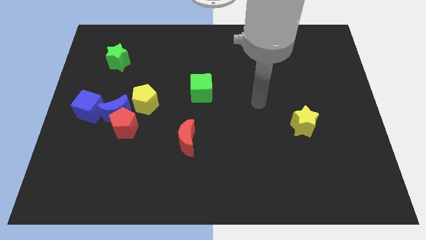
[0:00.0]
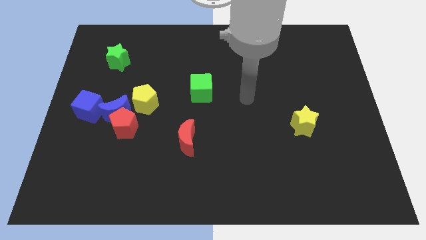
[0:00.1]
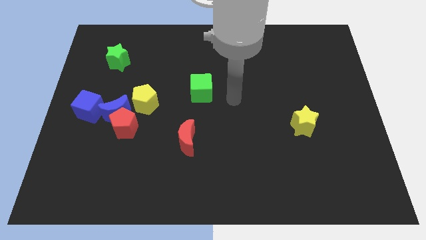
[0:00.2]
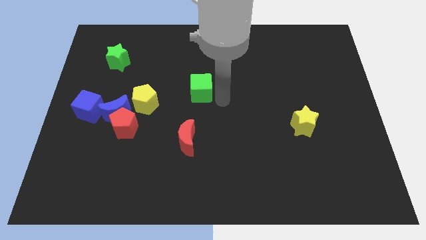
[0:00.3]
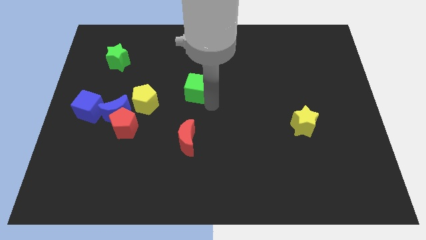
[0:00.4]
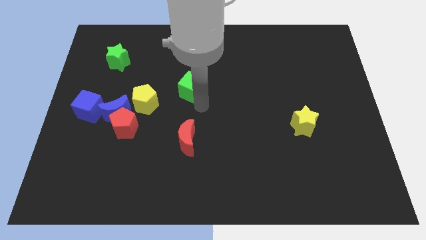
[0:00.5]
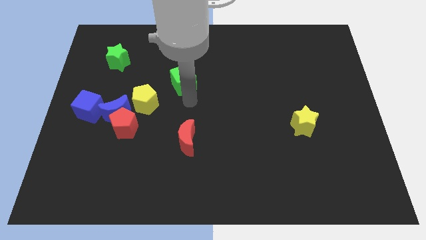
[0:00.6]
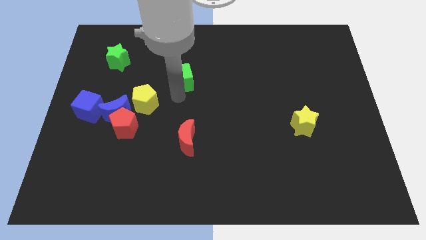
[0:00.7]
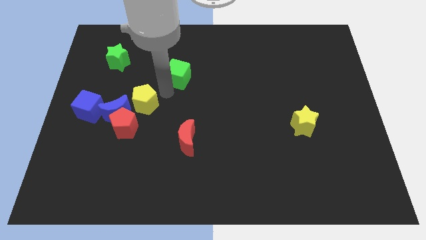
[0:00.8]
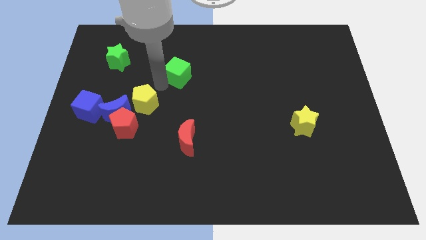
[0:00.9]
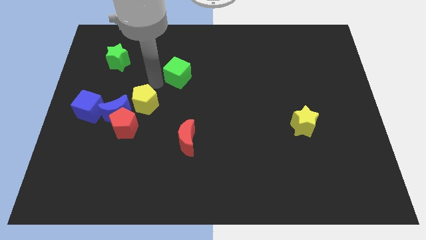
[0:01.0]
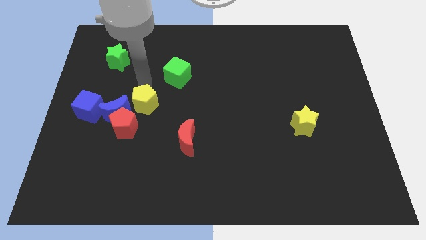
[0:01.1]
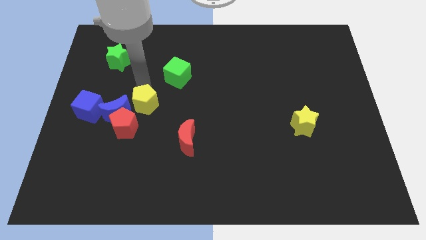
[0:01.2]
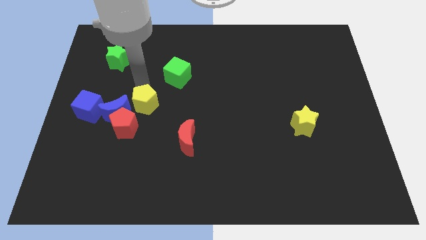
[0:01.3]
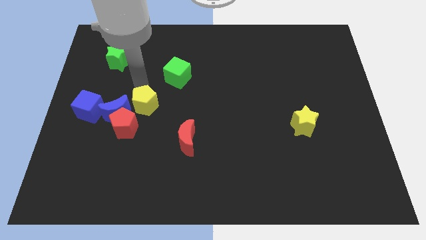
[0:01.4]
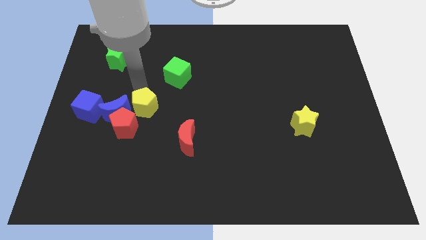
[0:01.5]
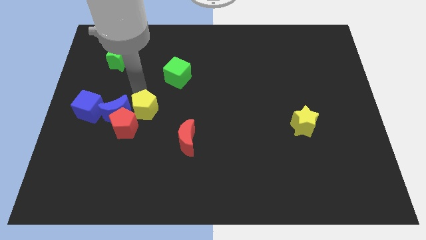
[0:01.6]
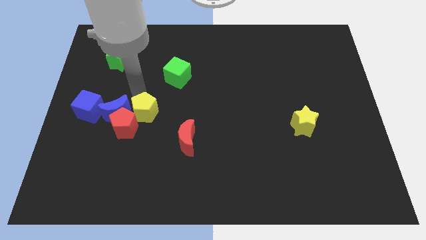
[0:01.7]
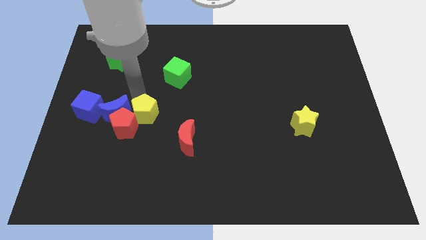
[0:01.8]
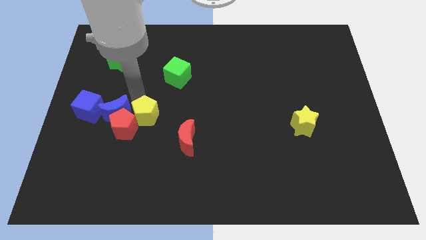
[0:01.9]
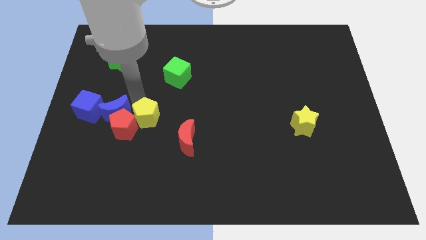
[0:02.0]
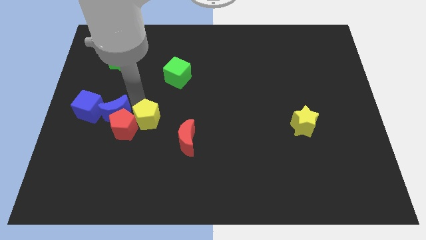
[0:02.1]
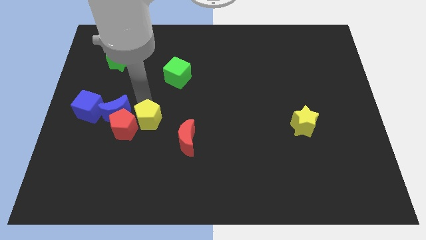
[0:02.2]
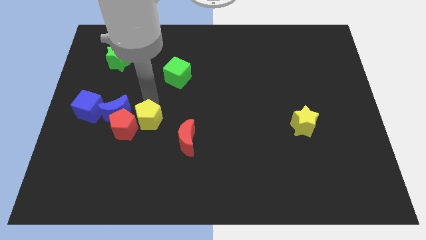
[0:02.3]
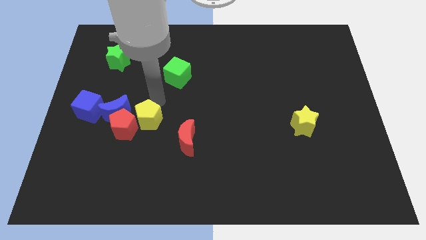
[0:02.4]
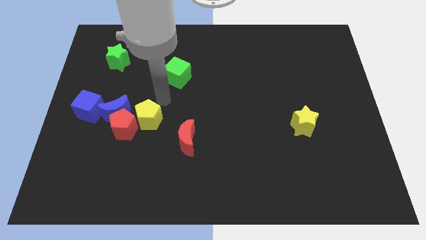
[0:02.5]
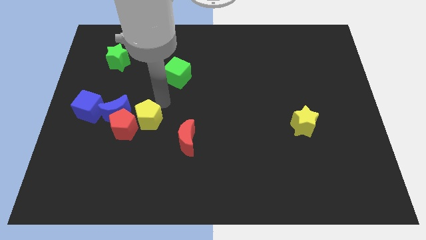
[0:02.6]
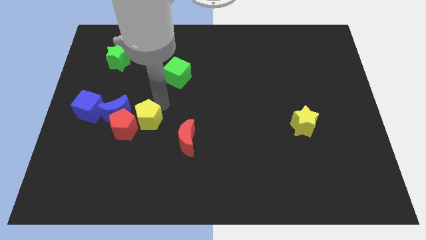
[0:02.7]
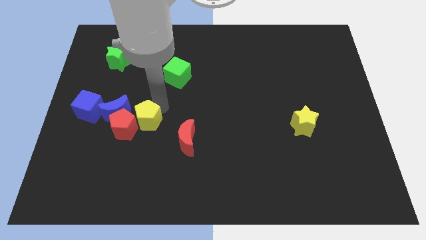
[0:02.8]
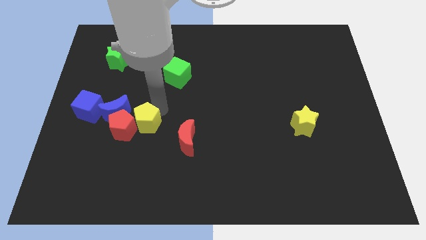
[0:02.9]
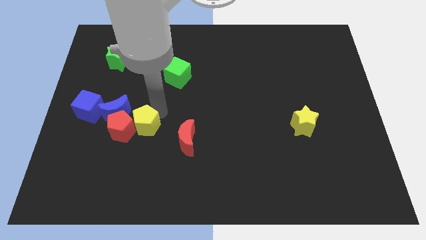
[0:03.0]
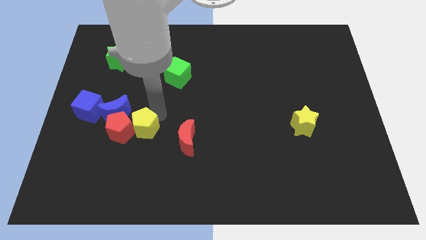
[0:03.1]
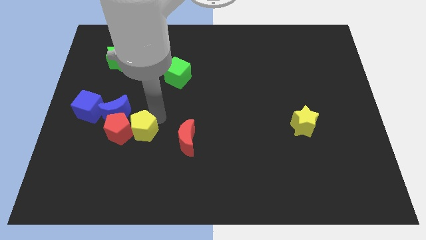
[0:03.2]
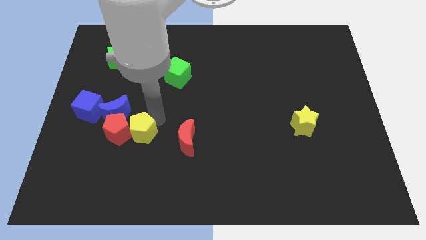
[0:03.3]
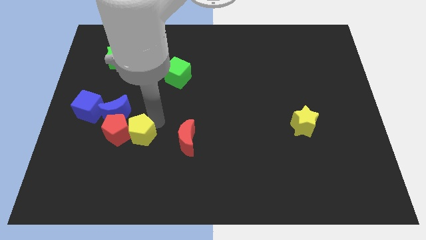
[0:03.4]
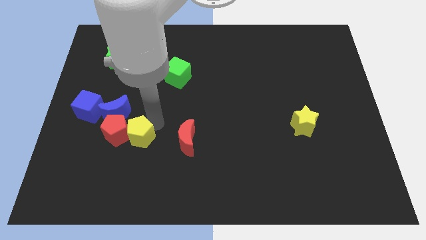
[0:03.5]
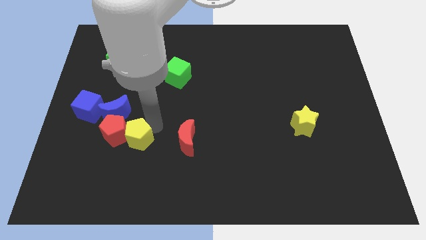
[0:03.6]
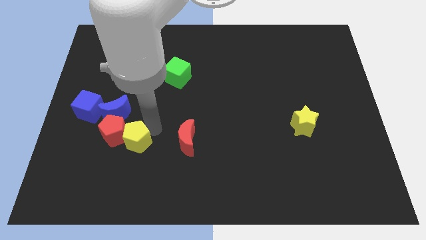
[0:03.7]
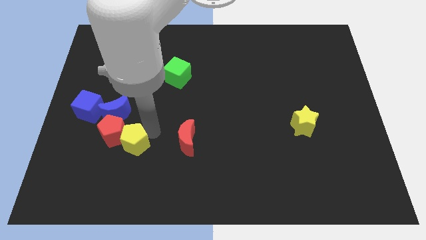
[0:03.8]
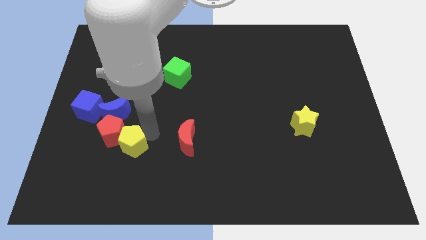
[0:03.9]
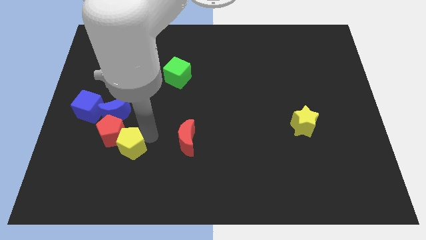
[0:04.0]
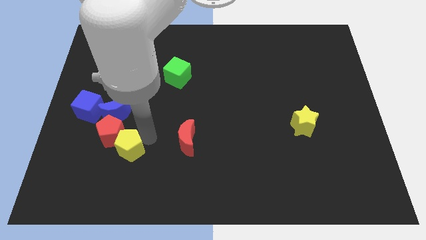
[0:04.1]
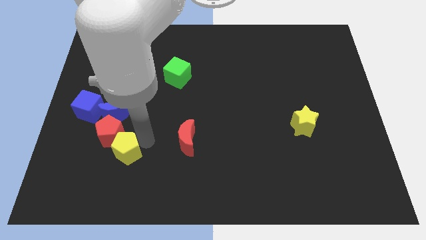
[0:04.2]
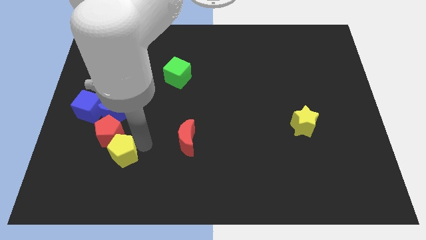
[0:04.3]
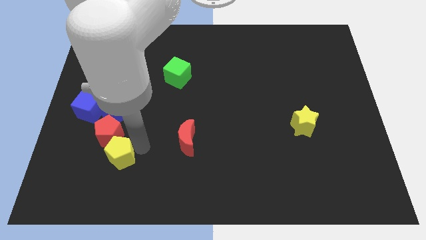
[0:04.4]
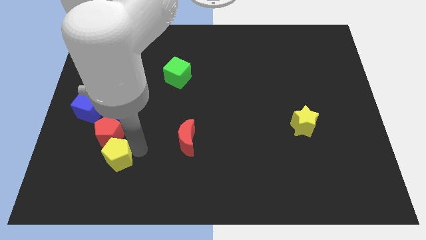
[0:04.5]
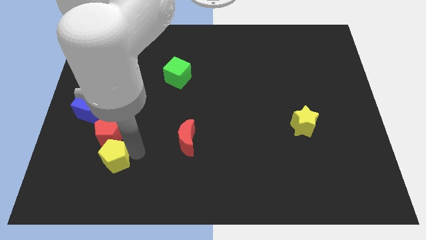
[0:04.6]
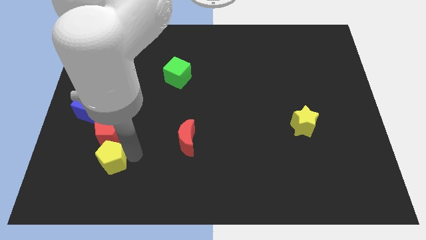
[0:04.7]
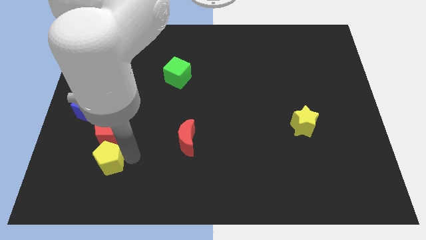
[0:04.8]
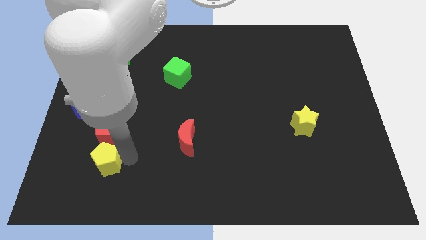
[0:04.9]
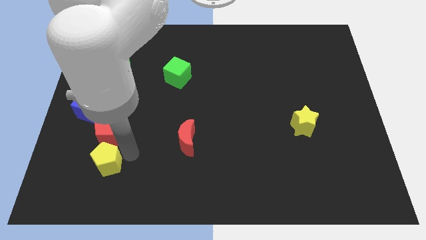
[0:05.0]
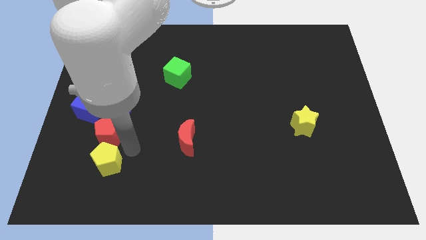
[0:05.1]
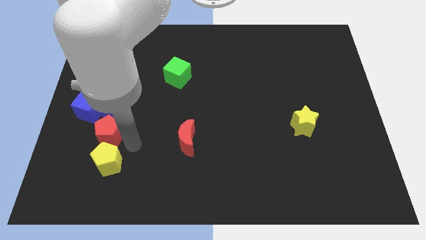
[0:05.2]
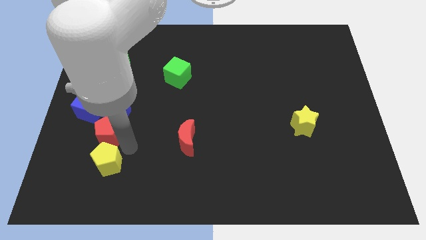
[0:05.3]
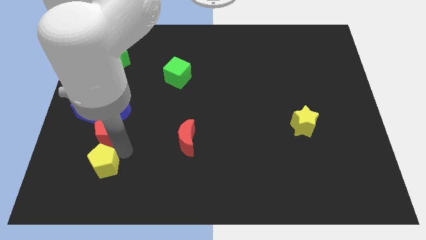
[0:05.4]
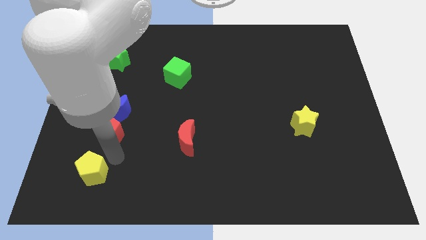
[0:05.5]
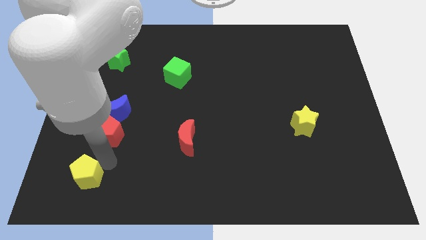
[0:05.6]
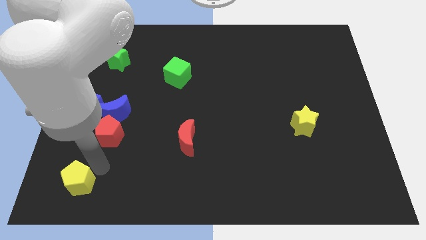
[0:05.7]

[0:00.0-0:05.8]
push the yellow pentagon to the bottom left

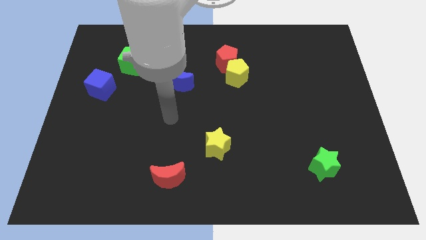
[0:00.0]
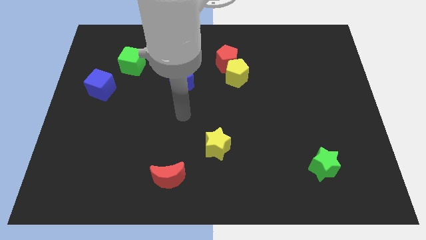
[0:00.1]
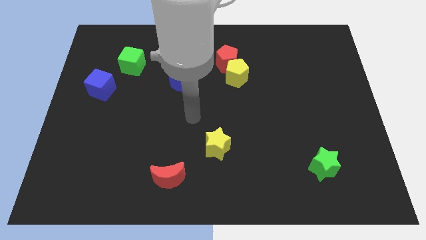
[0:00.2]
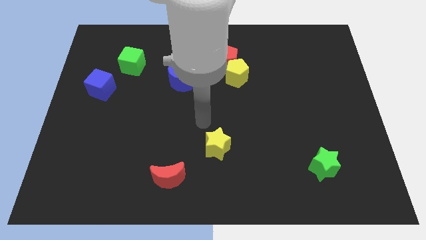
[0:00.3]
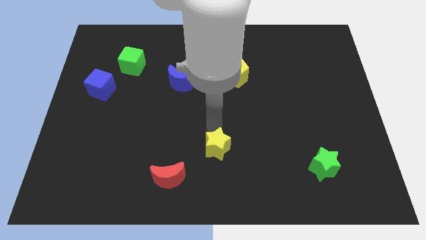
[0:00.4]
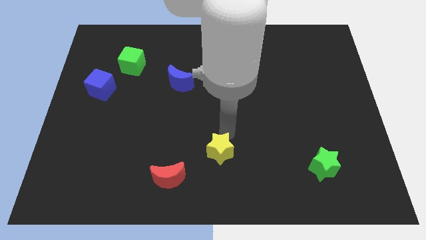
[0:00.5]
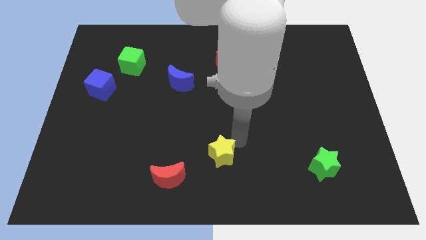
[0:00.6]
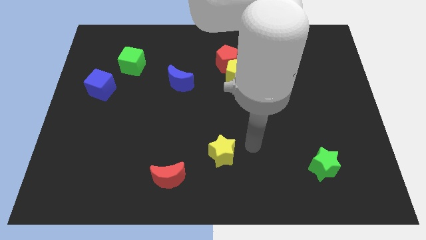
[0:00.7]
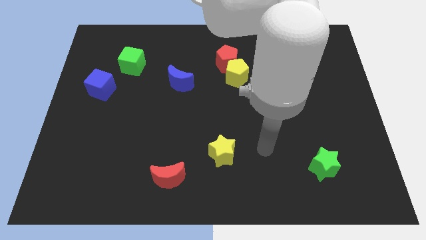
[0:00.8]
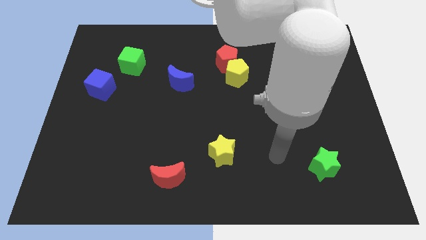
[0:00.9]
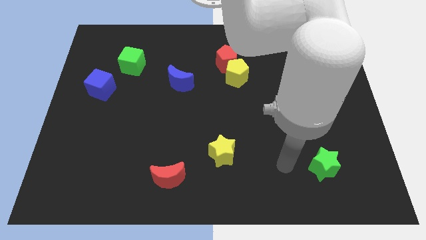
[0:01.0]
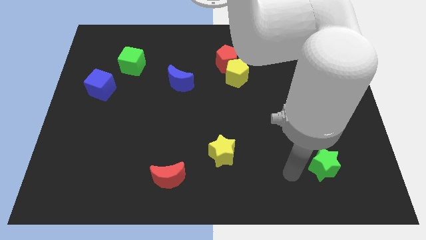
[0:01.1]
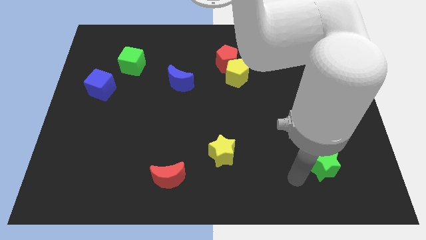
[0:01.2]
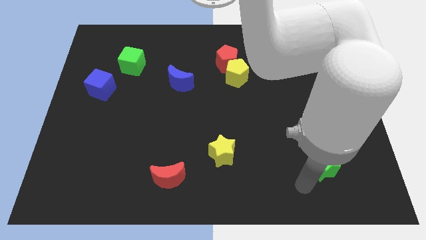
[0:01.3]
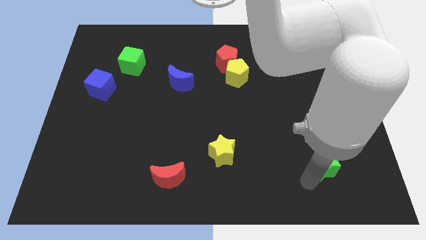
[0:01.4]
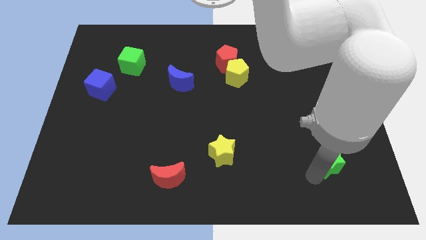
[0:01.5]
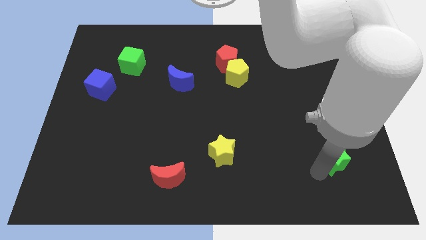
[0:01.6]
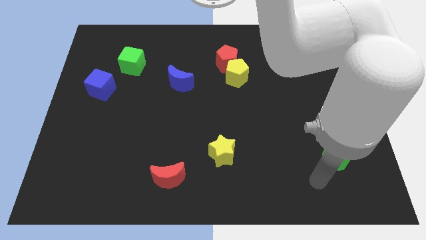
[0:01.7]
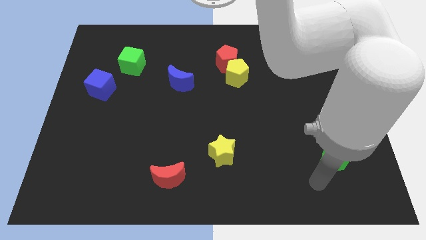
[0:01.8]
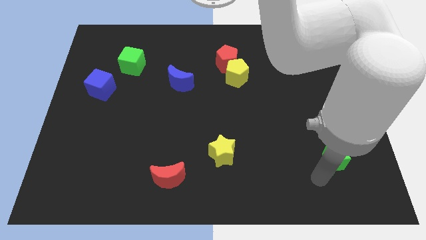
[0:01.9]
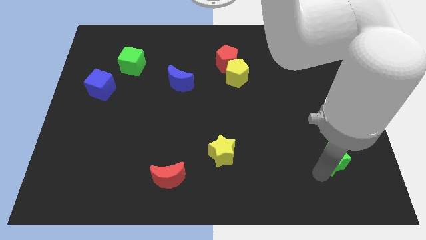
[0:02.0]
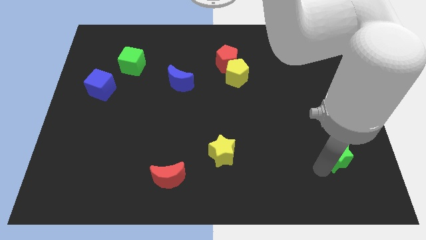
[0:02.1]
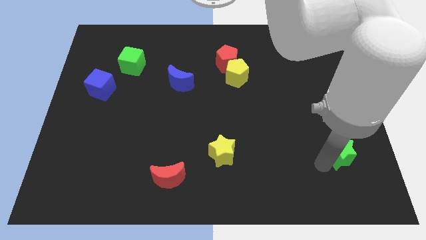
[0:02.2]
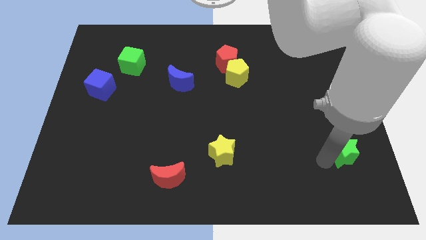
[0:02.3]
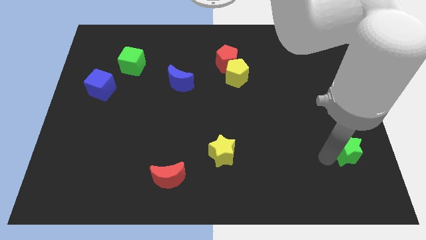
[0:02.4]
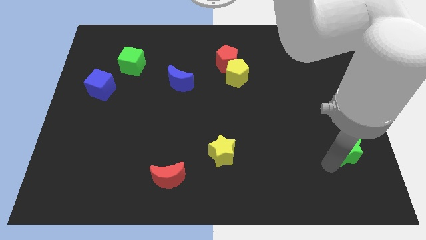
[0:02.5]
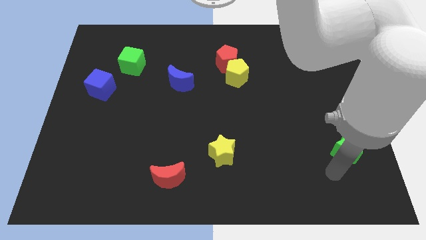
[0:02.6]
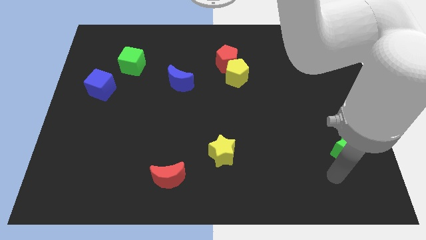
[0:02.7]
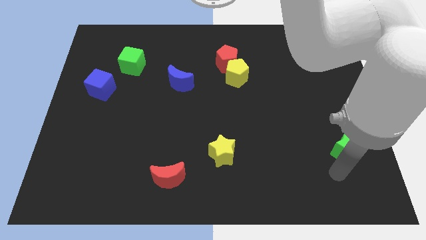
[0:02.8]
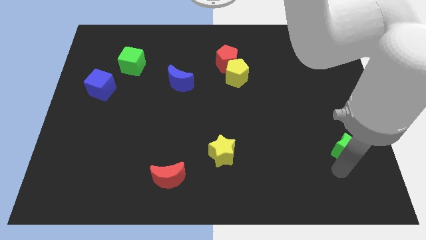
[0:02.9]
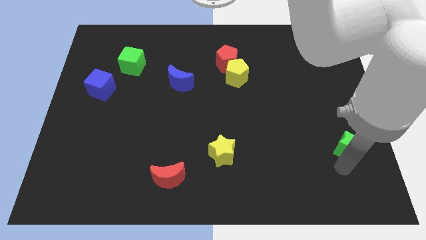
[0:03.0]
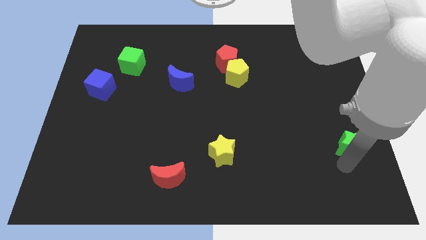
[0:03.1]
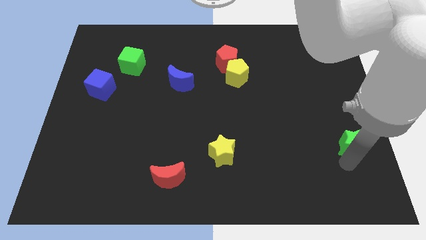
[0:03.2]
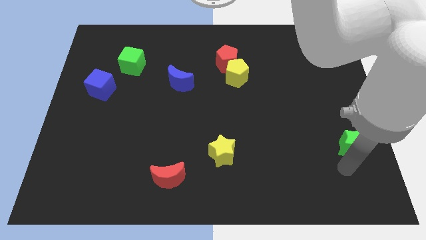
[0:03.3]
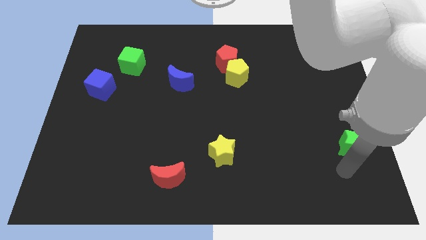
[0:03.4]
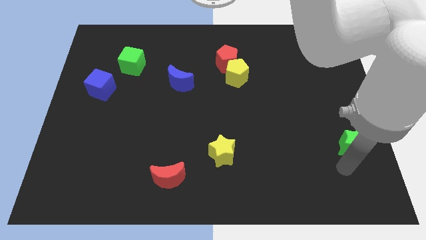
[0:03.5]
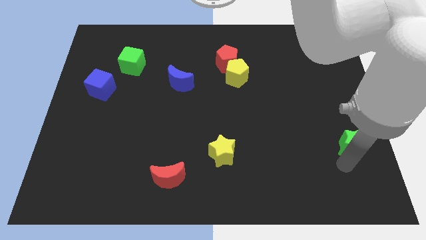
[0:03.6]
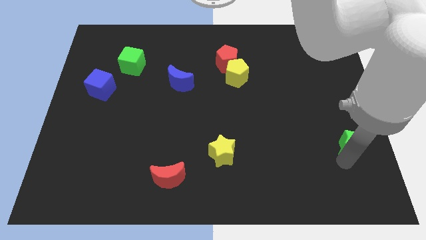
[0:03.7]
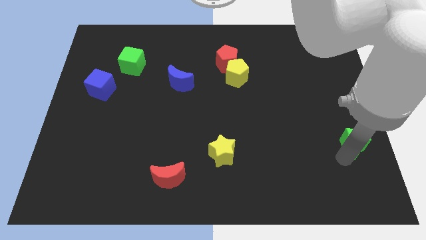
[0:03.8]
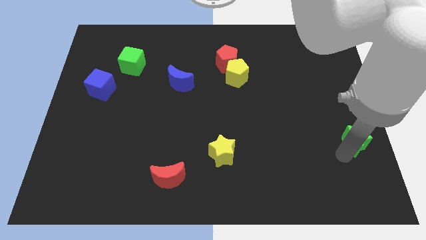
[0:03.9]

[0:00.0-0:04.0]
move the green star to the right side
